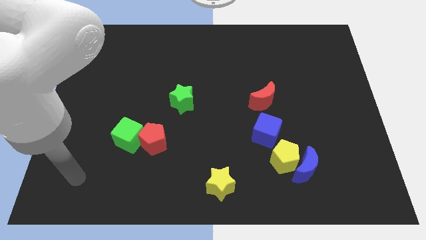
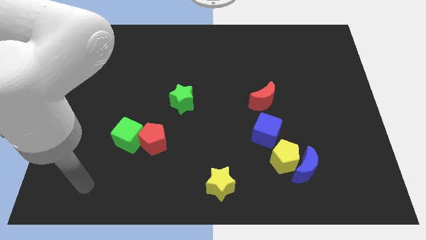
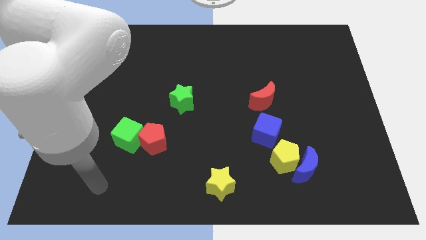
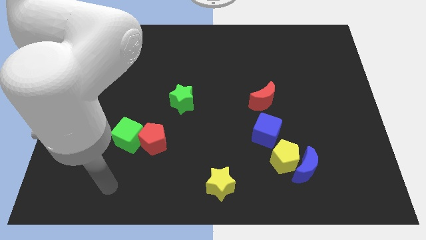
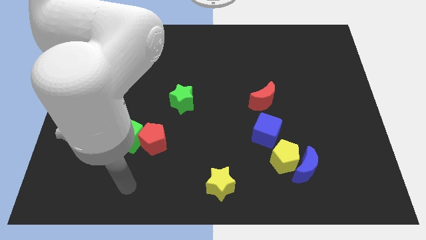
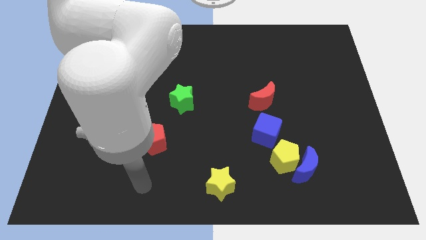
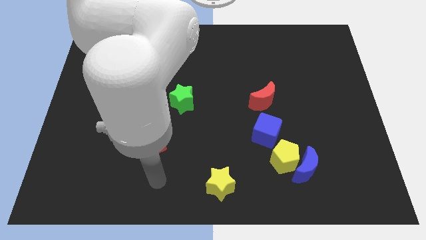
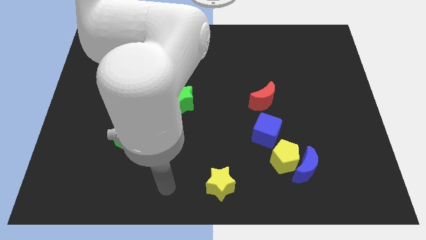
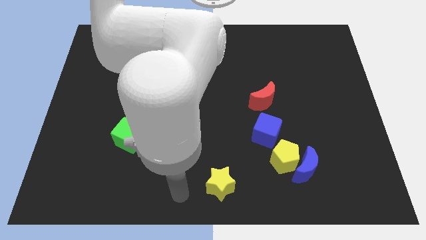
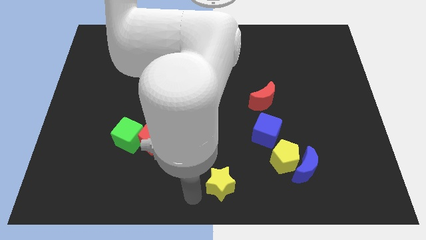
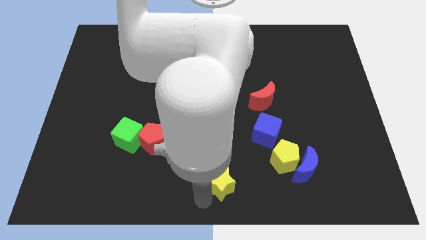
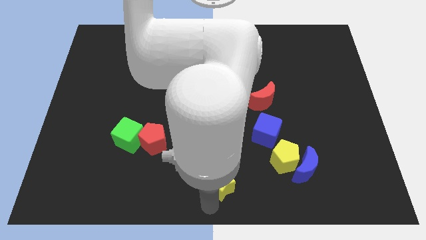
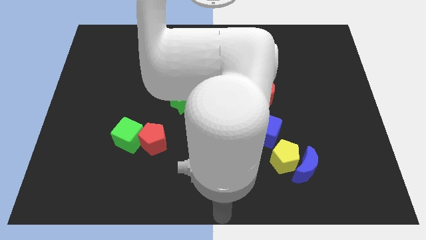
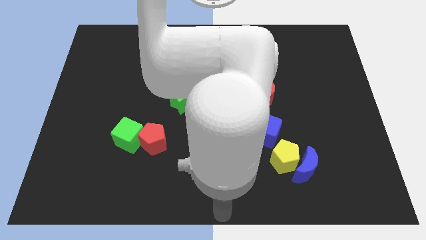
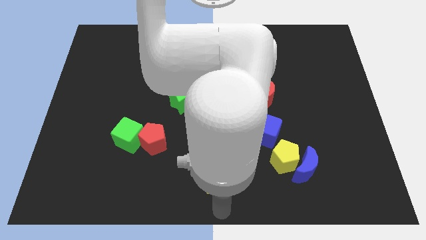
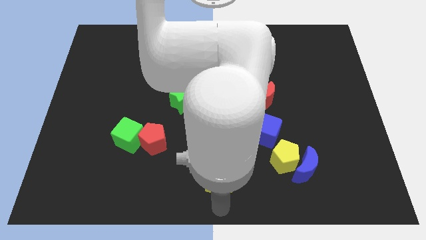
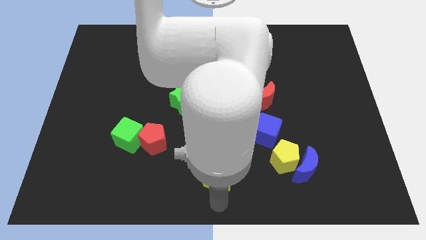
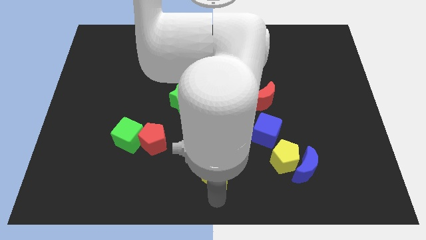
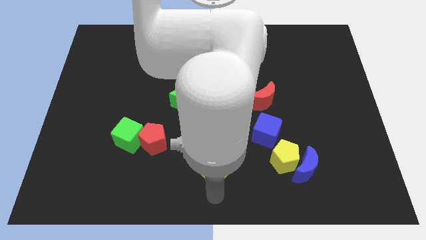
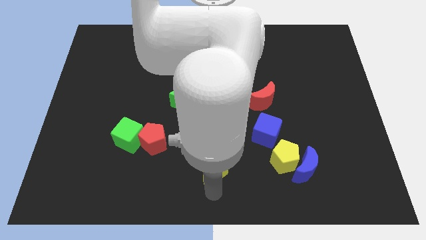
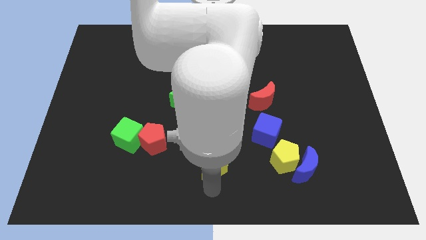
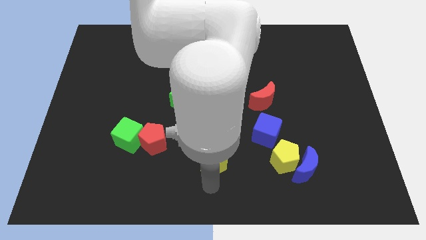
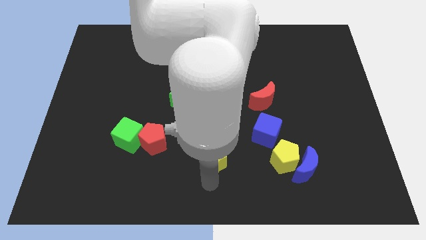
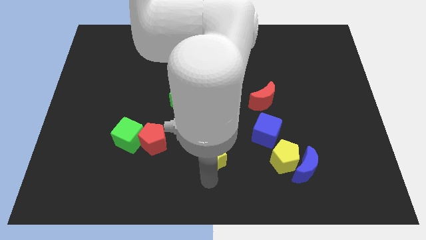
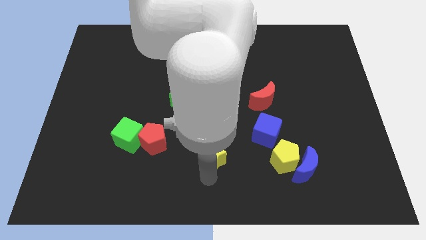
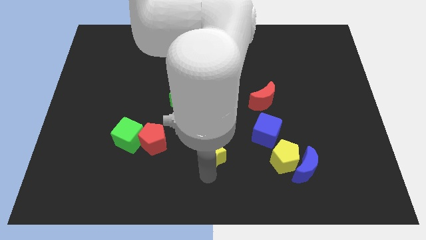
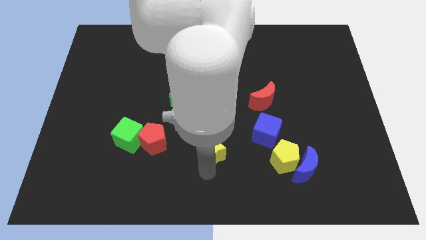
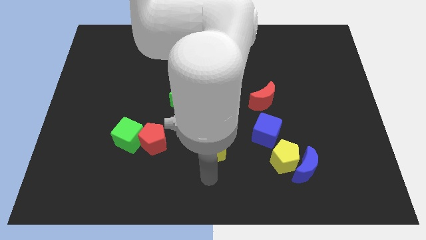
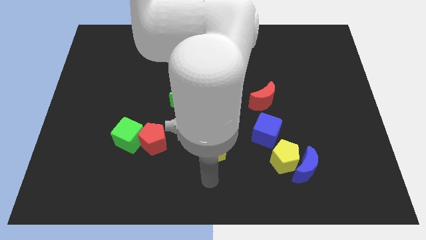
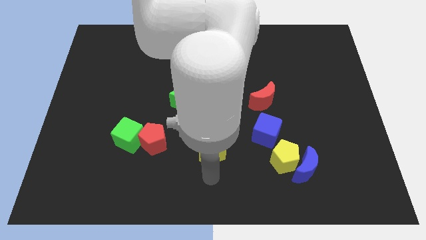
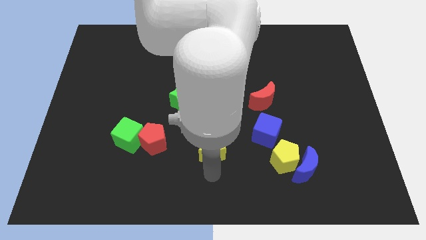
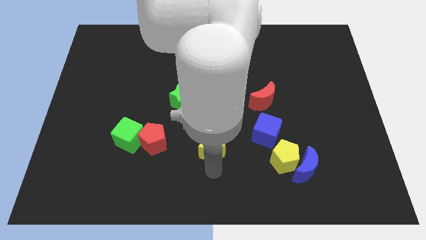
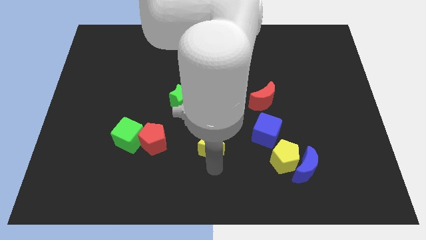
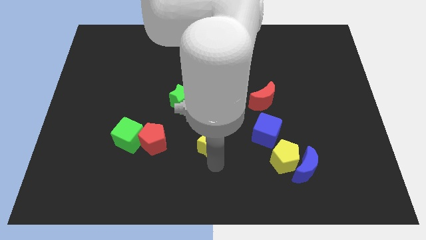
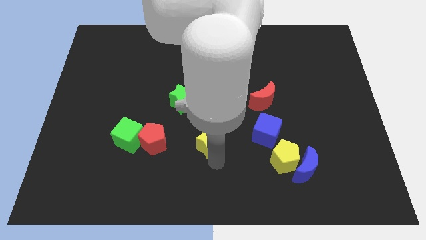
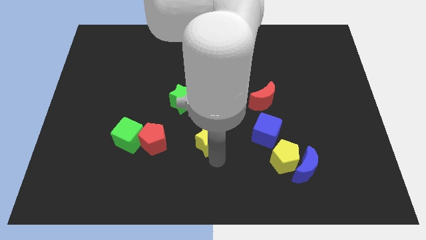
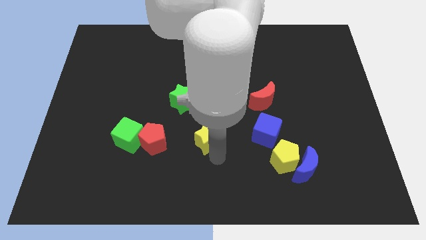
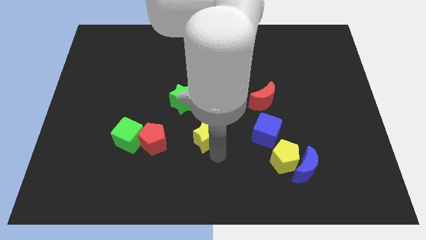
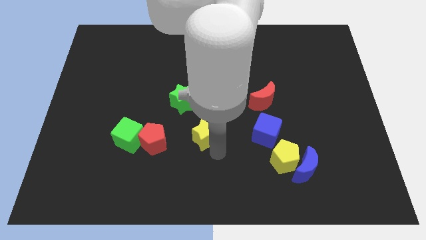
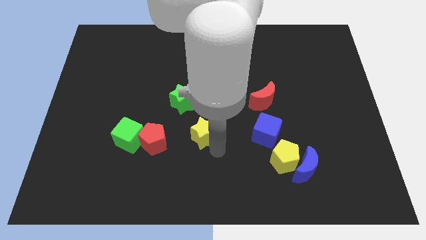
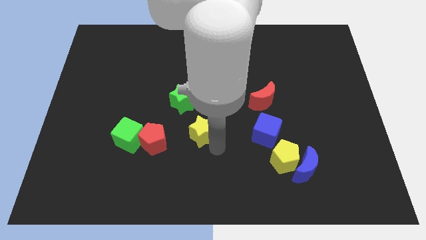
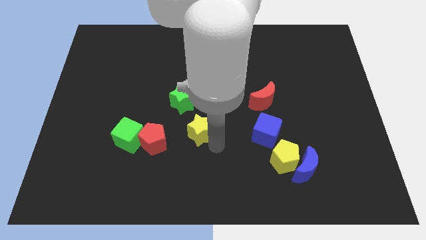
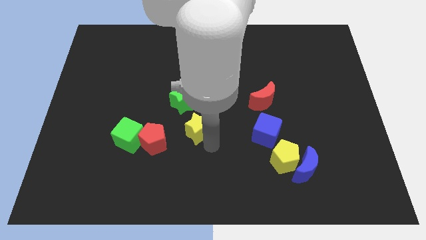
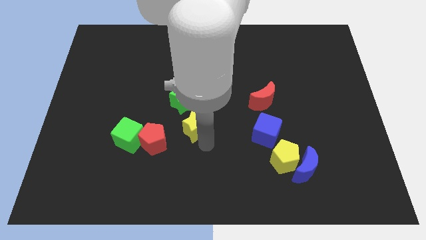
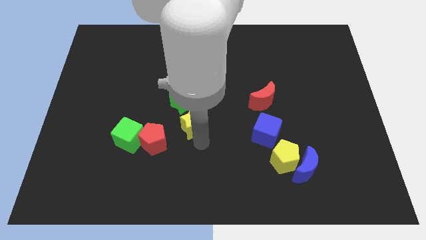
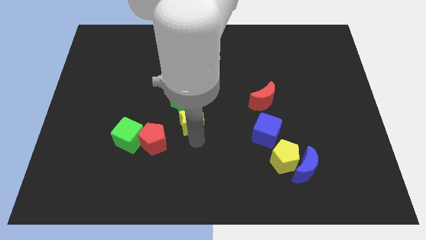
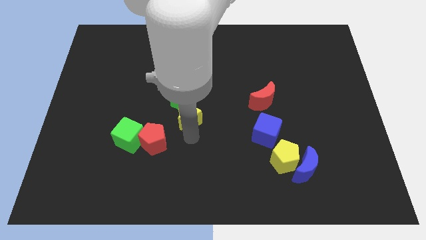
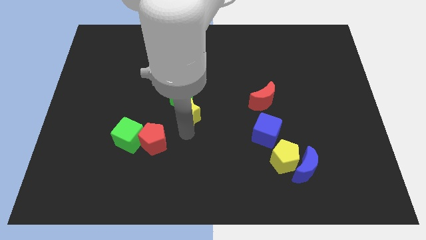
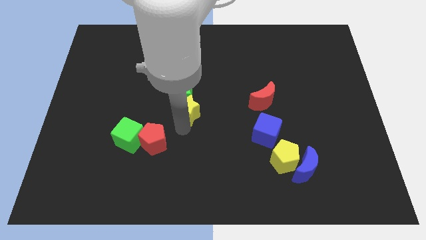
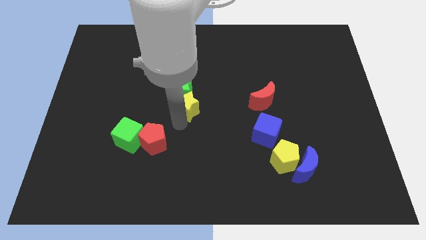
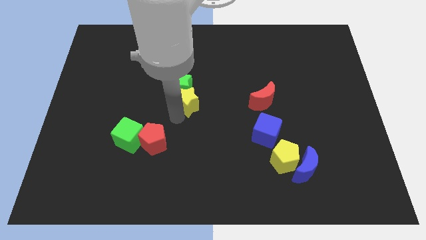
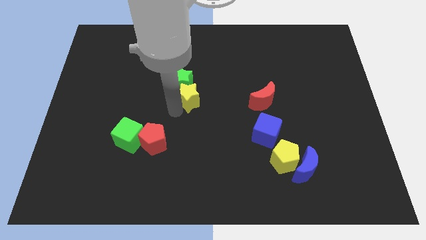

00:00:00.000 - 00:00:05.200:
slide the yellow star upwards

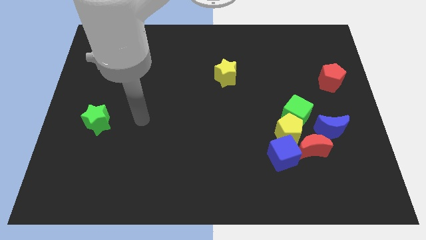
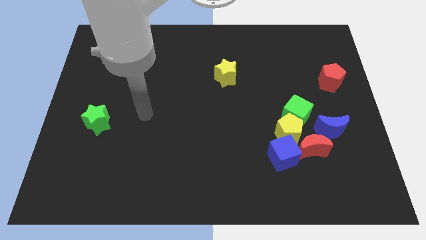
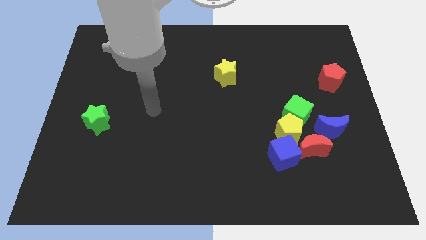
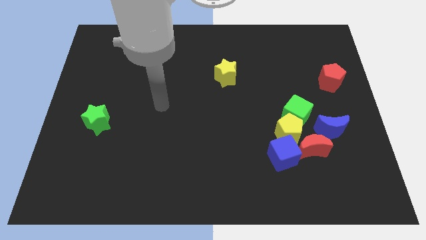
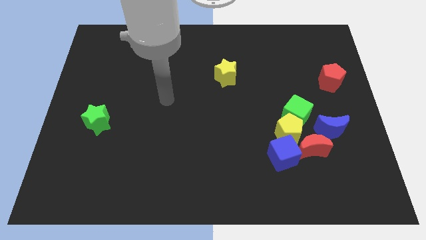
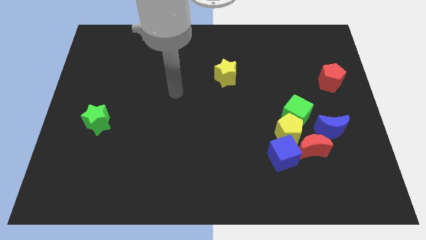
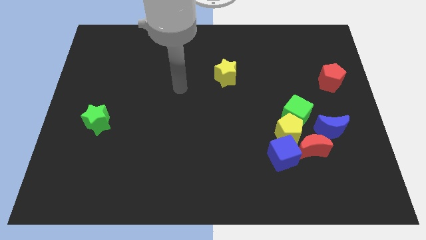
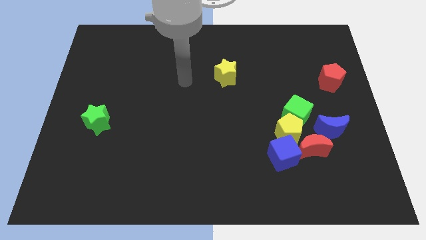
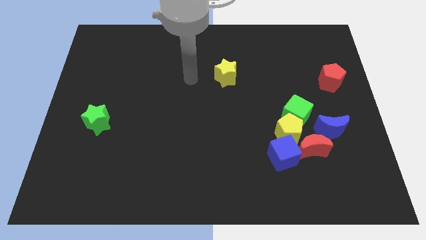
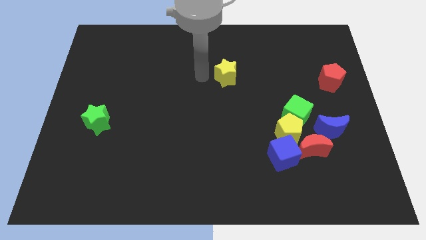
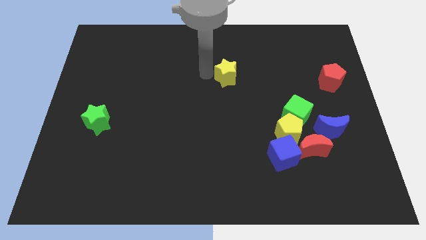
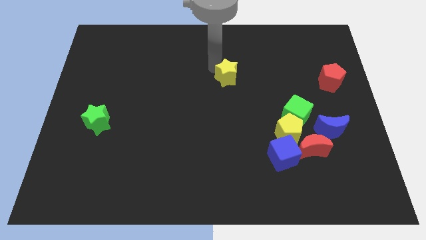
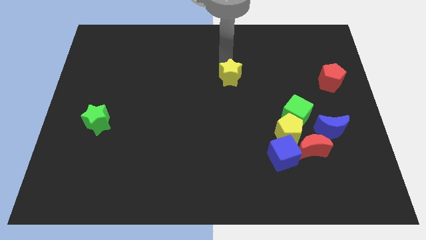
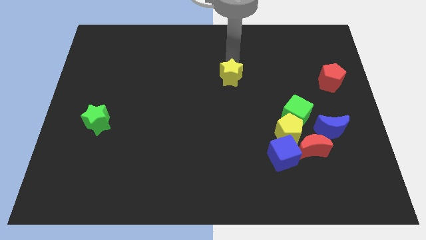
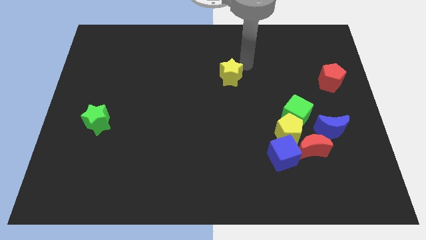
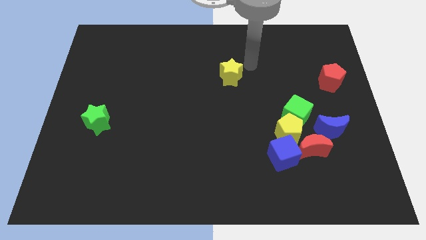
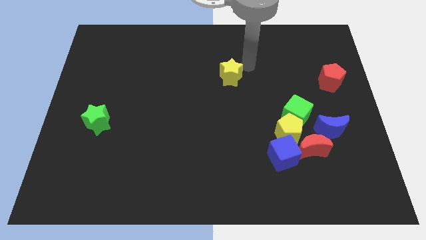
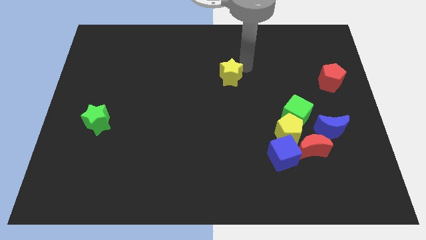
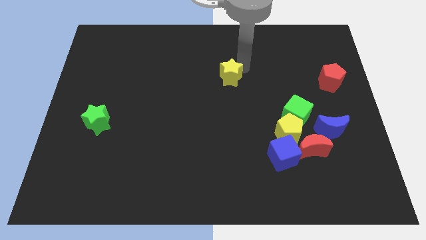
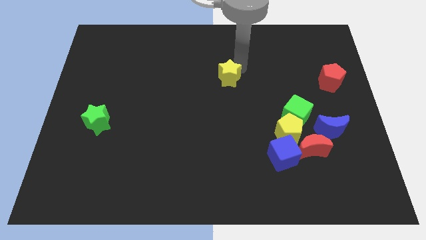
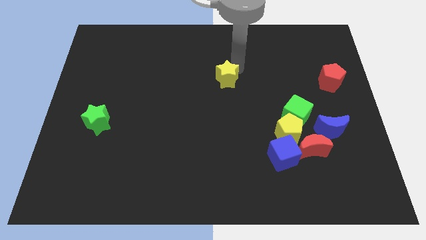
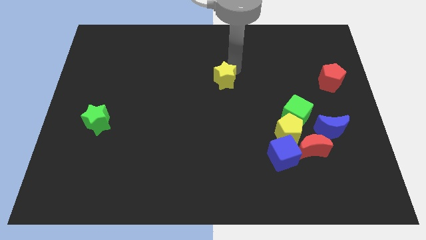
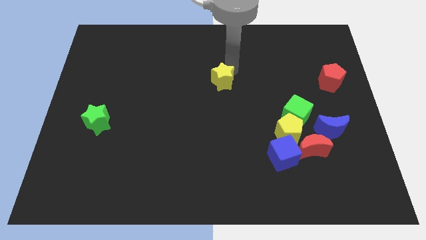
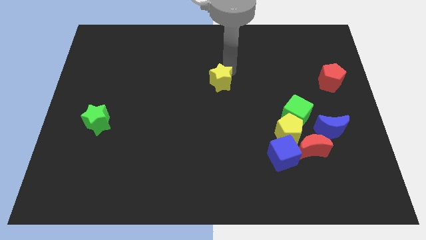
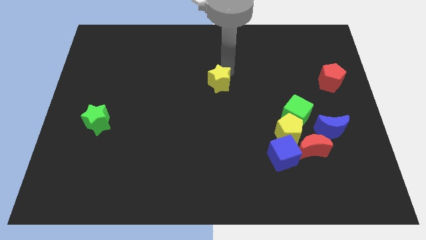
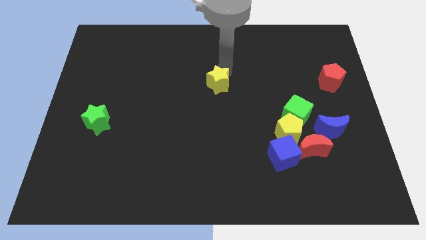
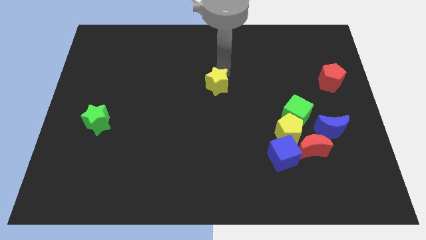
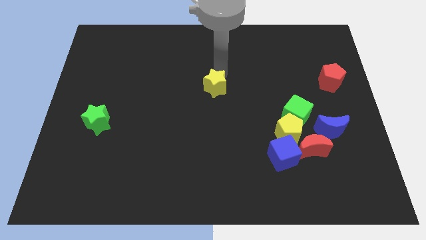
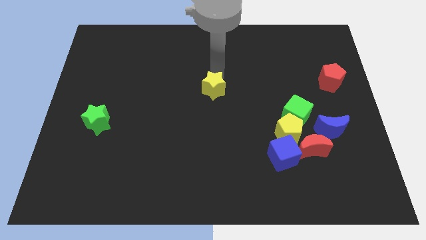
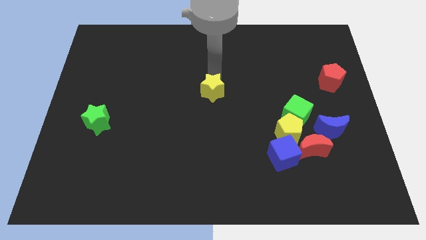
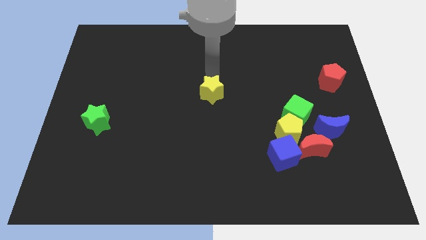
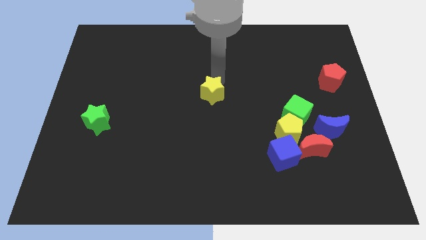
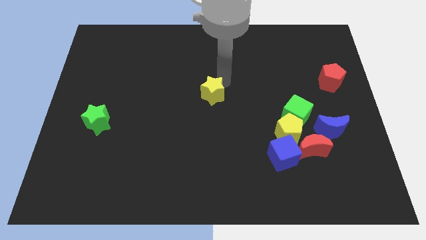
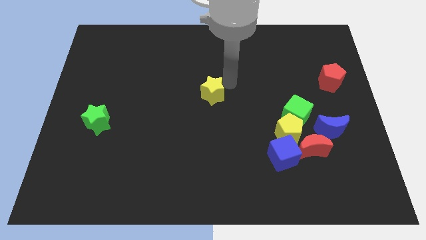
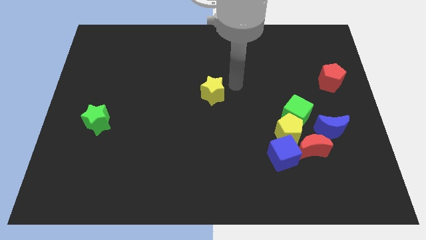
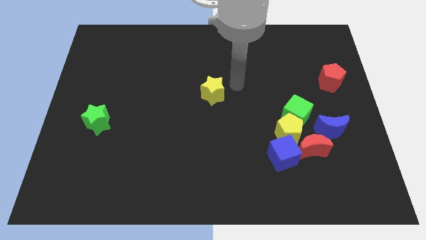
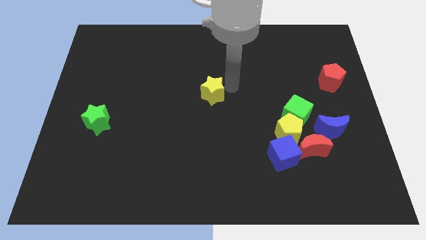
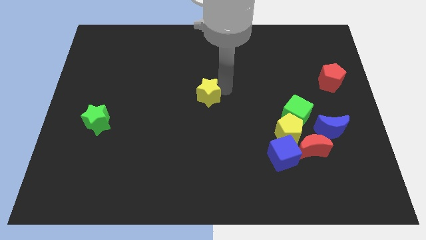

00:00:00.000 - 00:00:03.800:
move the yellow star down and to the left a bit
